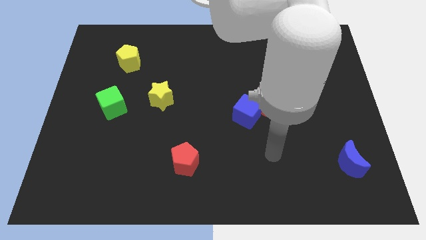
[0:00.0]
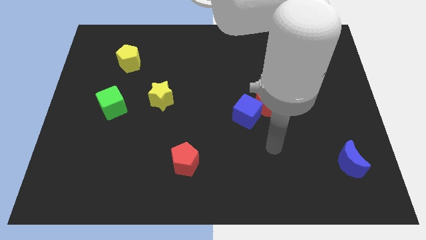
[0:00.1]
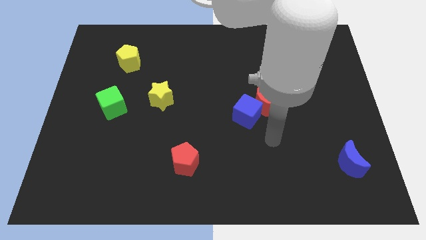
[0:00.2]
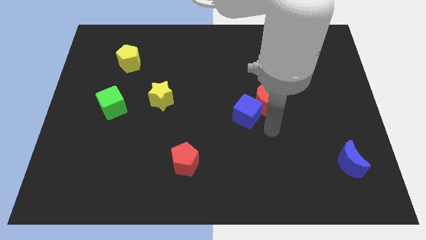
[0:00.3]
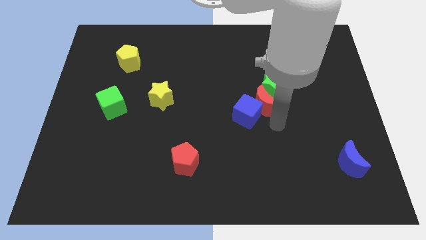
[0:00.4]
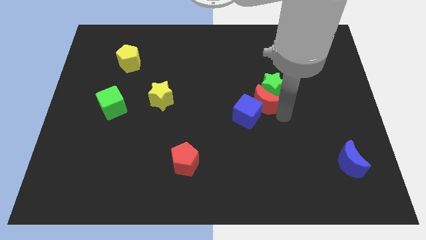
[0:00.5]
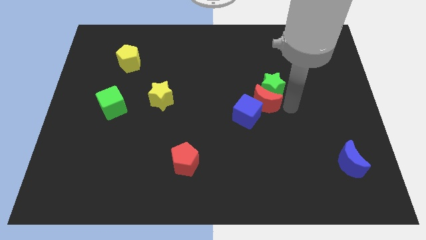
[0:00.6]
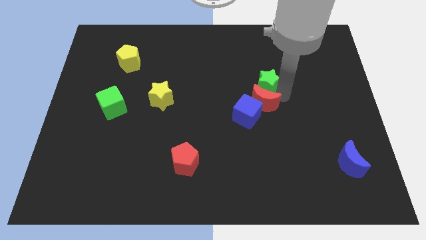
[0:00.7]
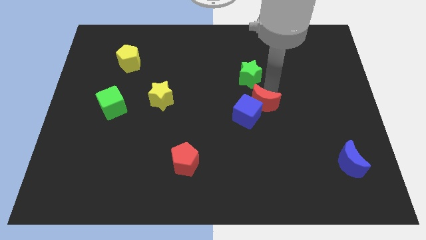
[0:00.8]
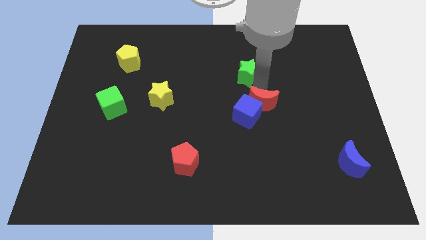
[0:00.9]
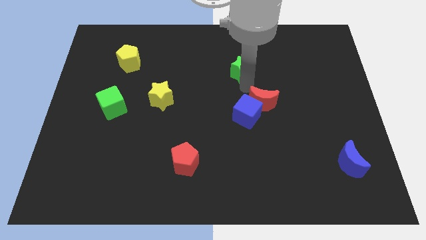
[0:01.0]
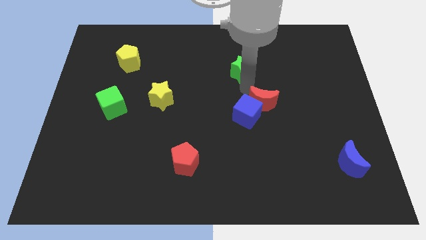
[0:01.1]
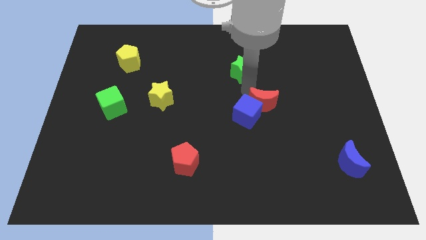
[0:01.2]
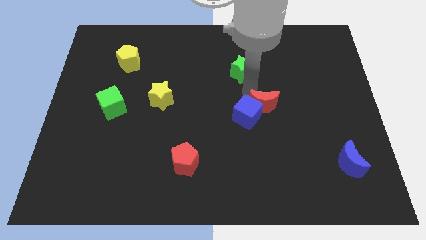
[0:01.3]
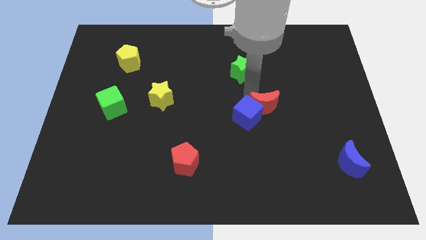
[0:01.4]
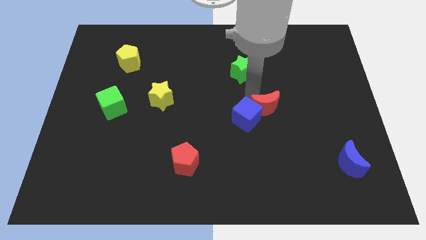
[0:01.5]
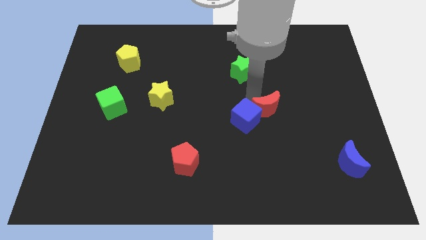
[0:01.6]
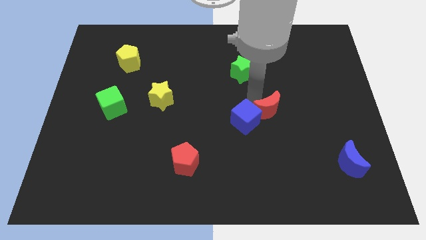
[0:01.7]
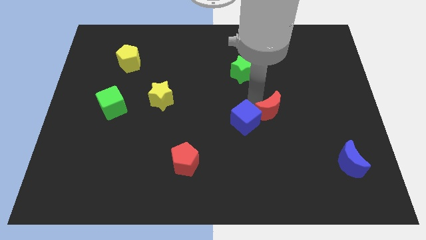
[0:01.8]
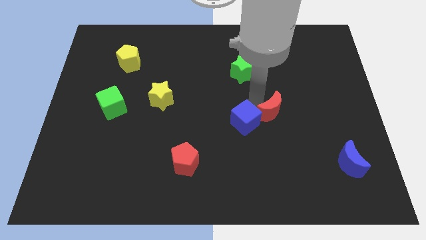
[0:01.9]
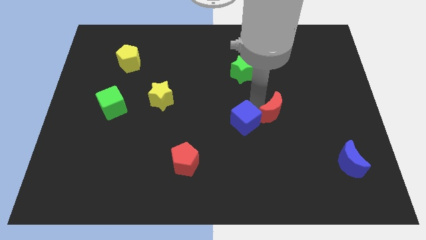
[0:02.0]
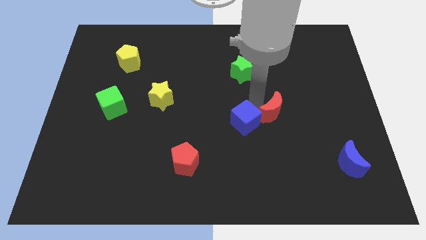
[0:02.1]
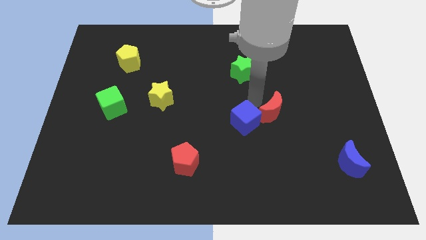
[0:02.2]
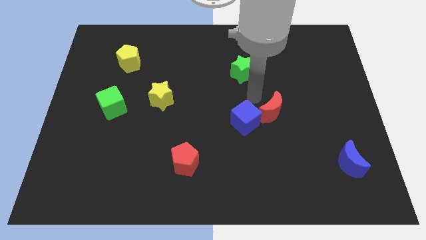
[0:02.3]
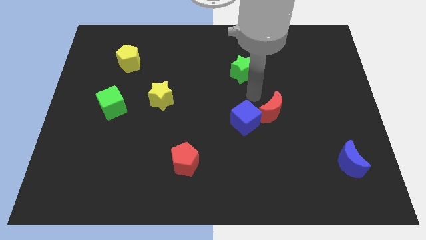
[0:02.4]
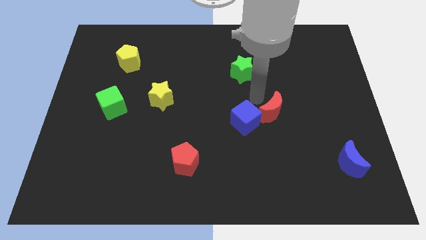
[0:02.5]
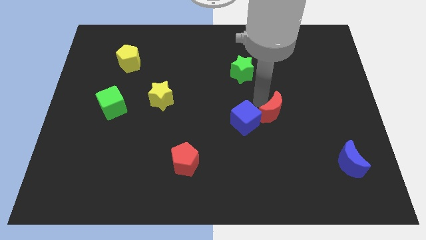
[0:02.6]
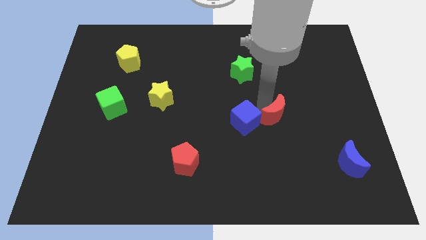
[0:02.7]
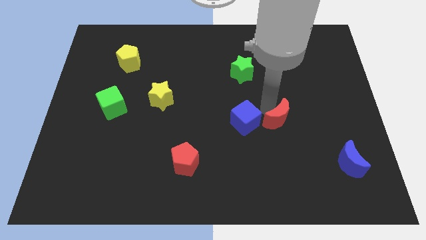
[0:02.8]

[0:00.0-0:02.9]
pull the red moon apart from the blue cube and green star

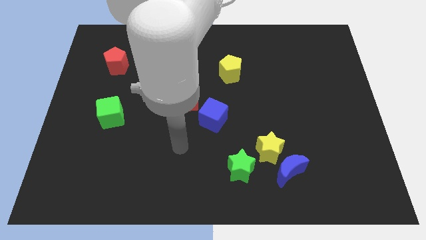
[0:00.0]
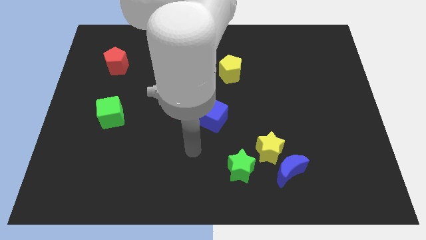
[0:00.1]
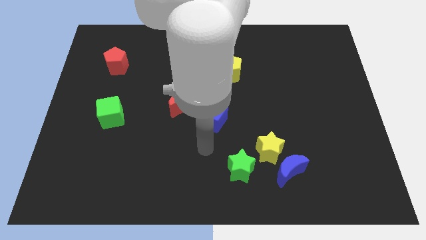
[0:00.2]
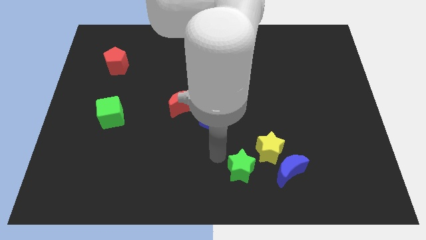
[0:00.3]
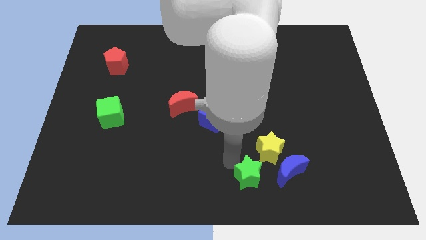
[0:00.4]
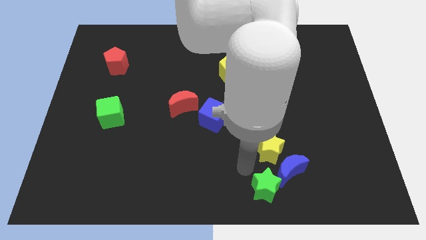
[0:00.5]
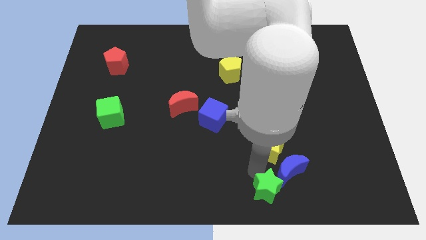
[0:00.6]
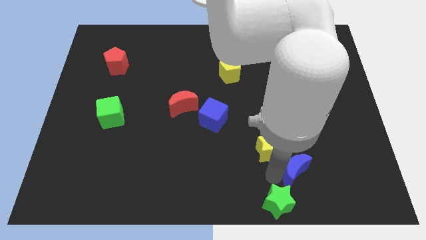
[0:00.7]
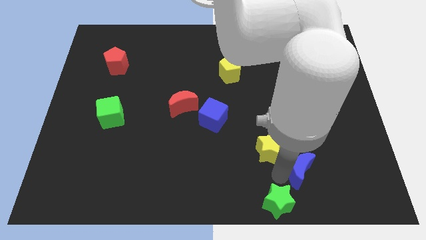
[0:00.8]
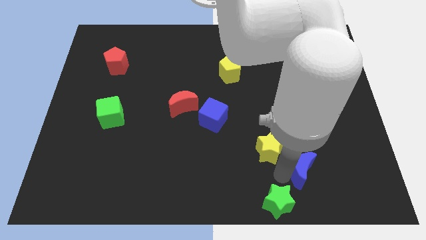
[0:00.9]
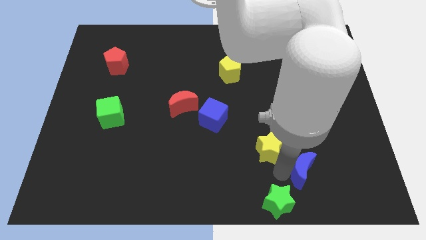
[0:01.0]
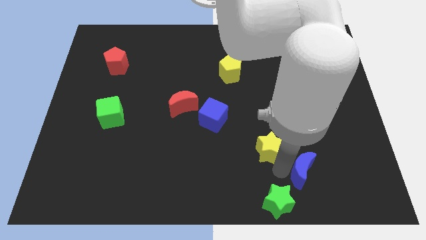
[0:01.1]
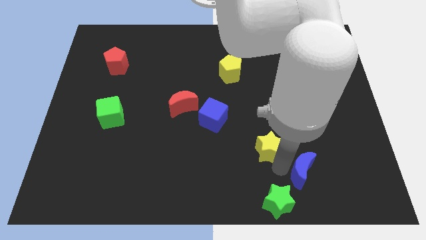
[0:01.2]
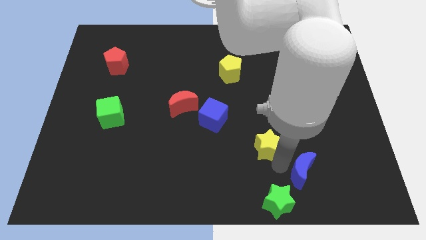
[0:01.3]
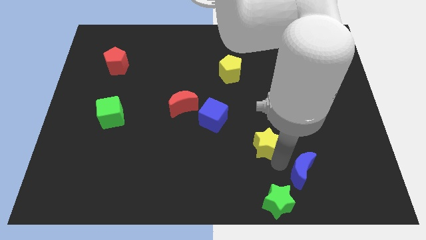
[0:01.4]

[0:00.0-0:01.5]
move the yellow star away from the blue moon and green star

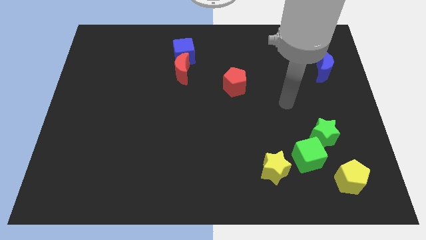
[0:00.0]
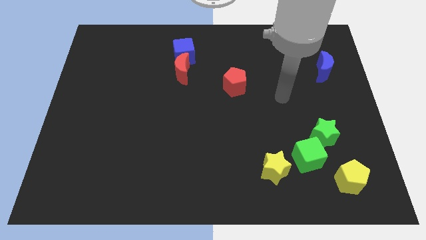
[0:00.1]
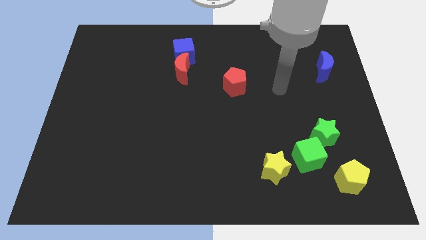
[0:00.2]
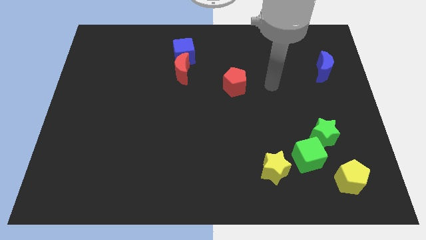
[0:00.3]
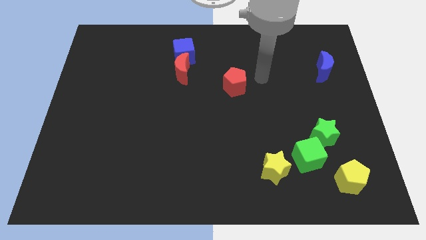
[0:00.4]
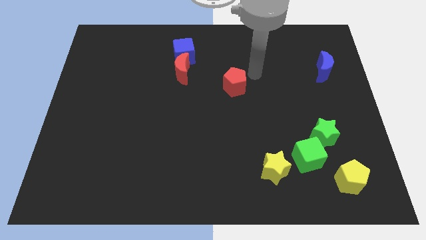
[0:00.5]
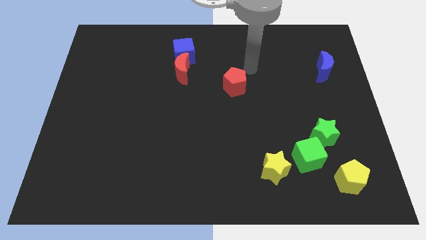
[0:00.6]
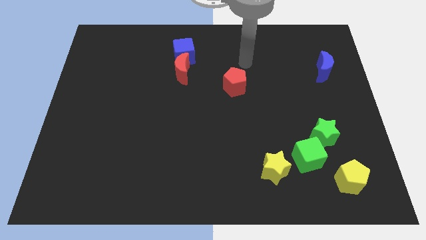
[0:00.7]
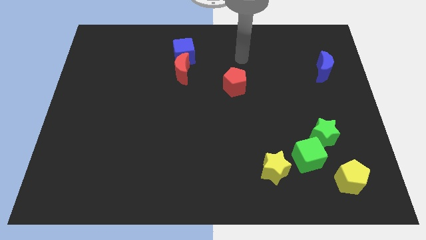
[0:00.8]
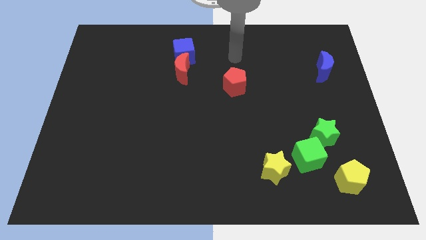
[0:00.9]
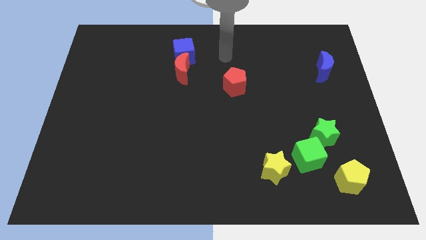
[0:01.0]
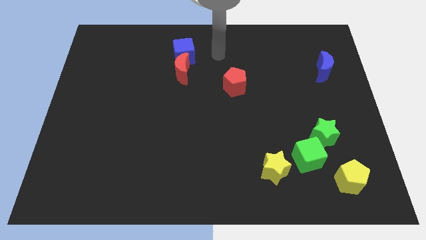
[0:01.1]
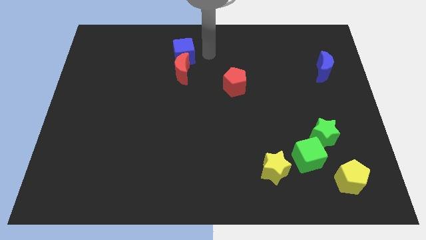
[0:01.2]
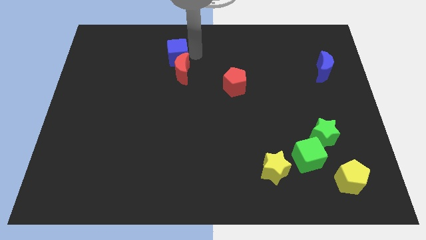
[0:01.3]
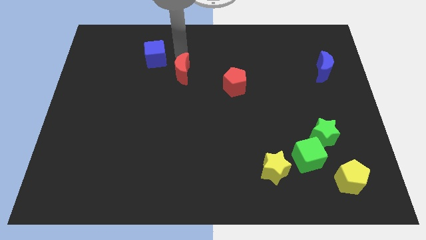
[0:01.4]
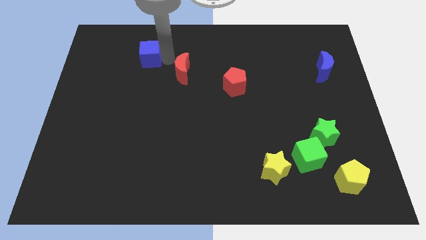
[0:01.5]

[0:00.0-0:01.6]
separate the red moon from the blue cube

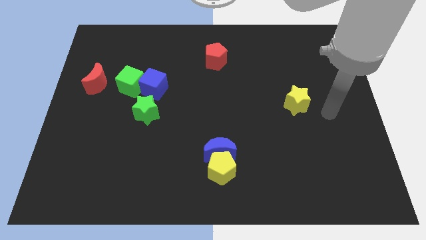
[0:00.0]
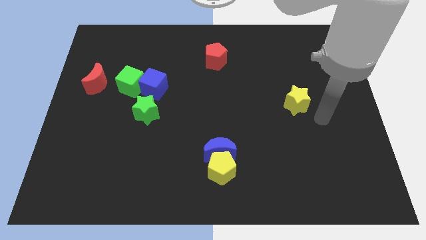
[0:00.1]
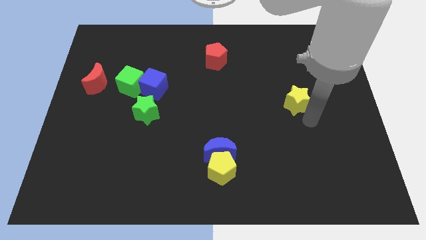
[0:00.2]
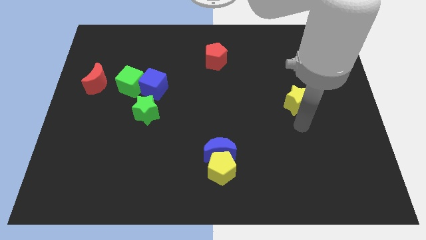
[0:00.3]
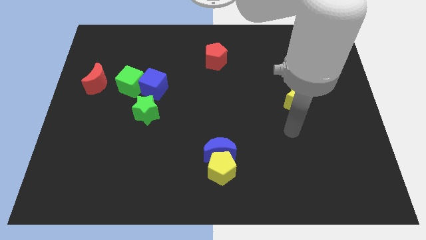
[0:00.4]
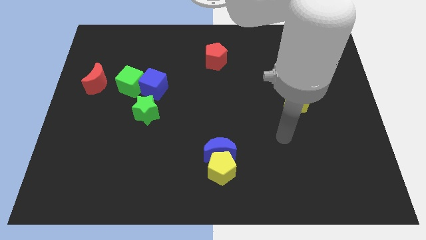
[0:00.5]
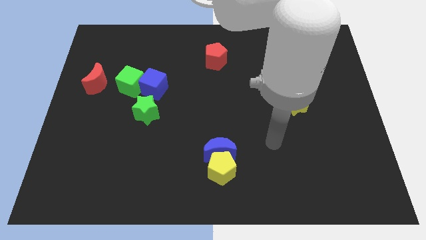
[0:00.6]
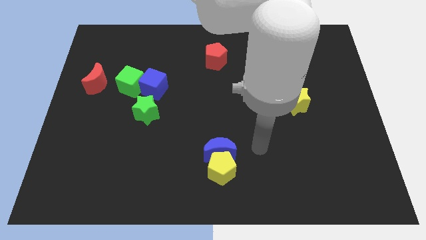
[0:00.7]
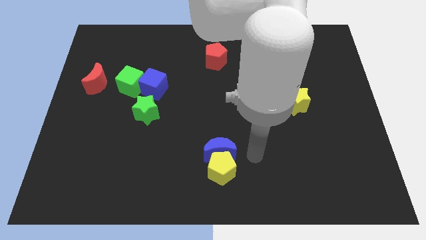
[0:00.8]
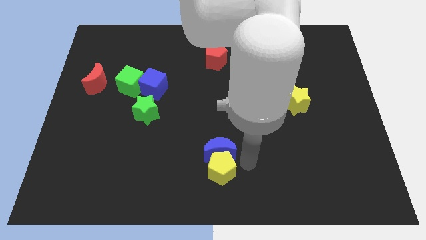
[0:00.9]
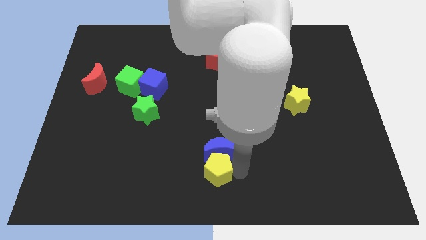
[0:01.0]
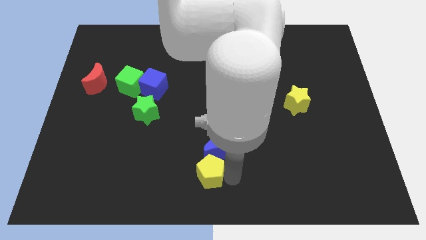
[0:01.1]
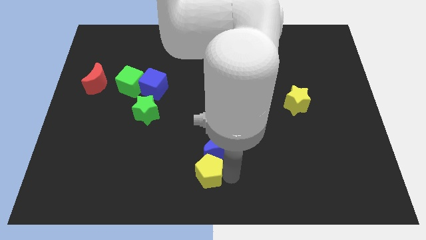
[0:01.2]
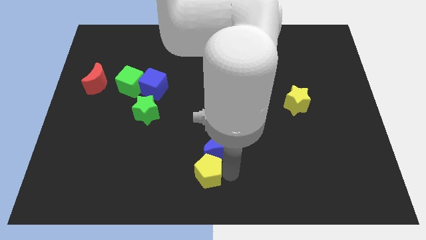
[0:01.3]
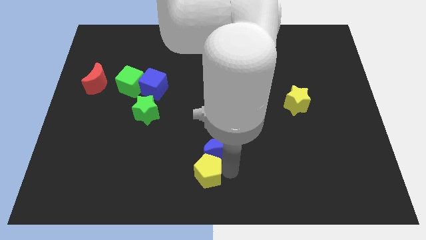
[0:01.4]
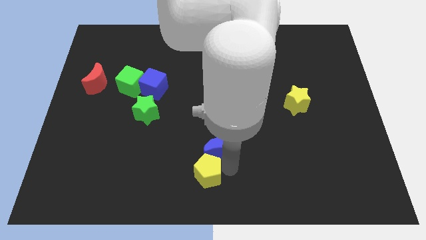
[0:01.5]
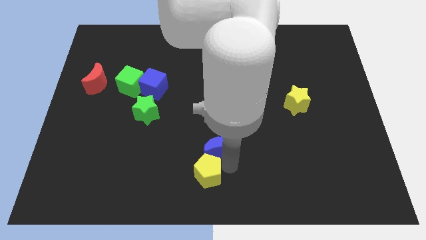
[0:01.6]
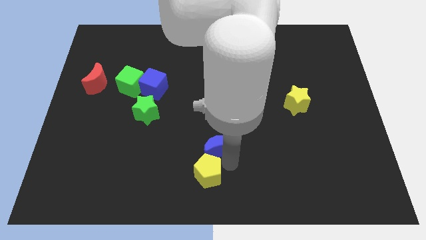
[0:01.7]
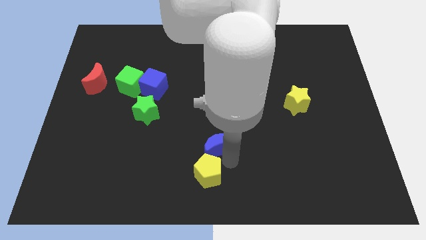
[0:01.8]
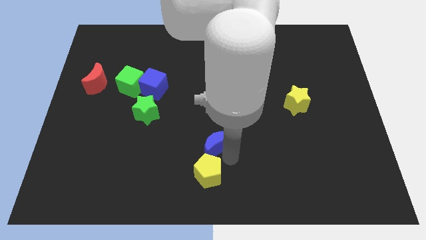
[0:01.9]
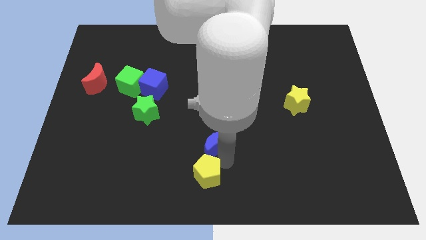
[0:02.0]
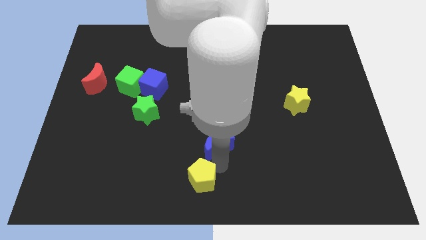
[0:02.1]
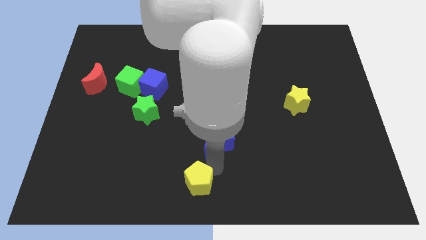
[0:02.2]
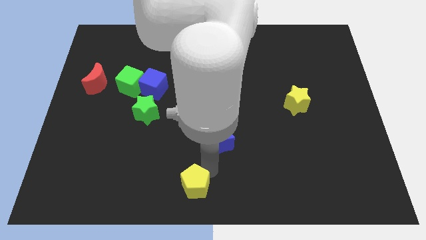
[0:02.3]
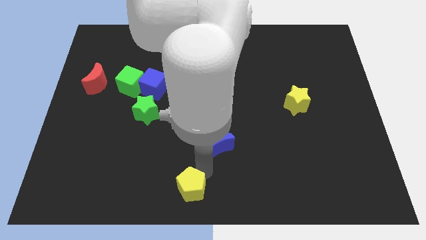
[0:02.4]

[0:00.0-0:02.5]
separate the blue moon from the yellow pentagon

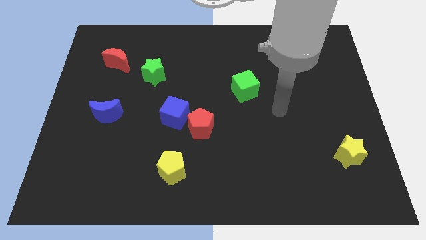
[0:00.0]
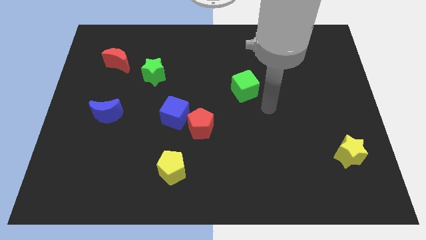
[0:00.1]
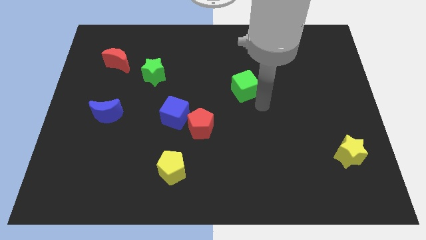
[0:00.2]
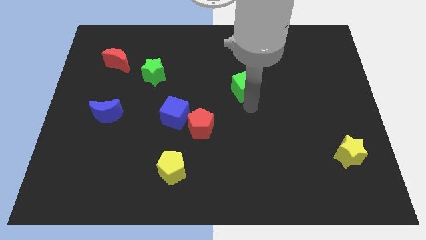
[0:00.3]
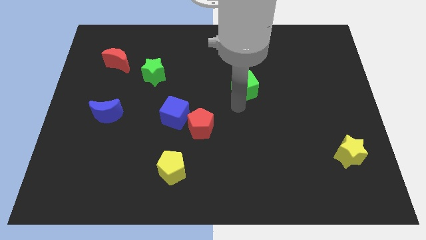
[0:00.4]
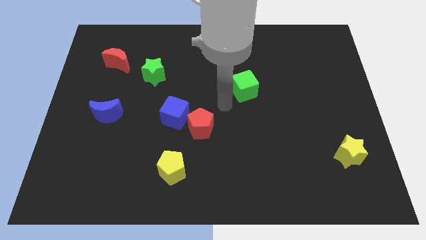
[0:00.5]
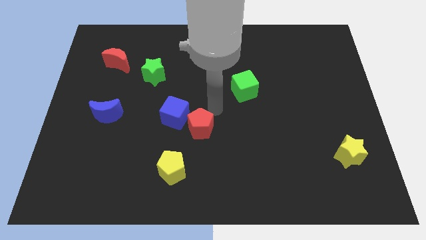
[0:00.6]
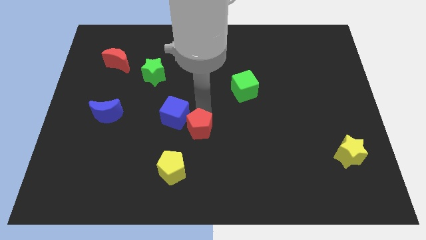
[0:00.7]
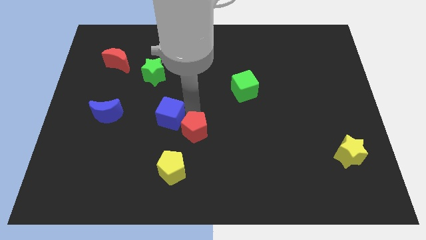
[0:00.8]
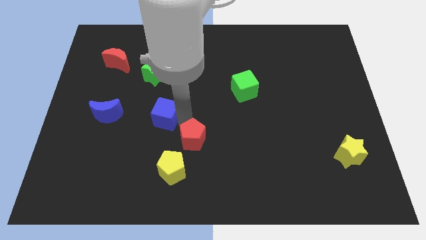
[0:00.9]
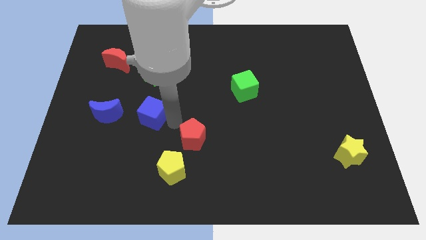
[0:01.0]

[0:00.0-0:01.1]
pull the red pentagon apart from the blue cube
